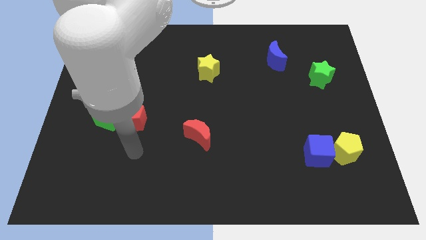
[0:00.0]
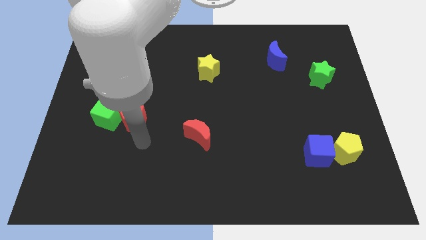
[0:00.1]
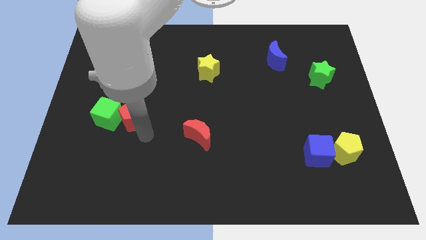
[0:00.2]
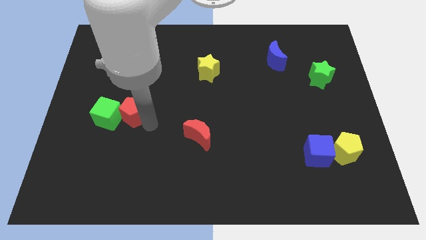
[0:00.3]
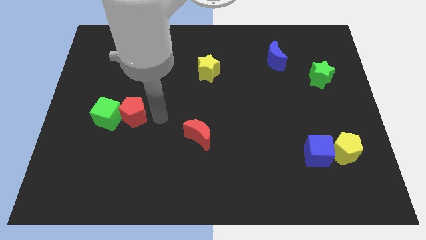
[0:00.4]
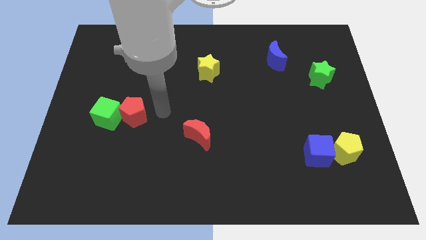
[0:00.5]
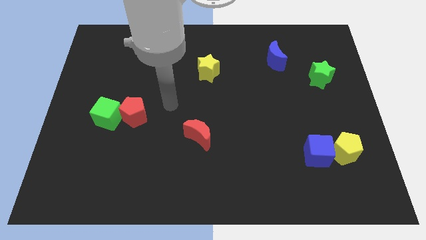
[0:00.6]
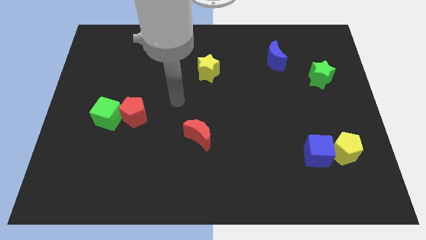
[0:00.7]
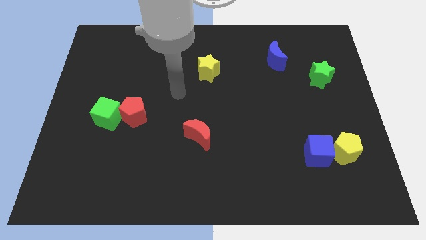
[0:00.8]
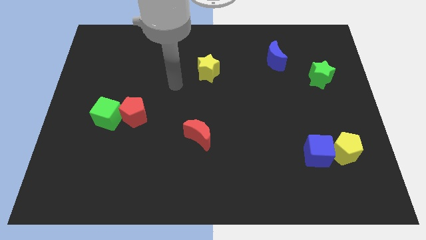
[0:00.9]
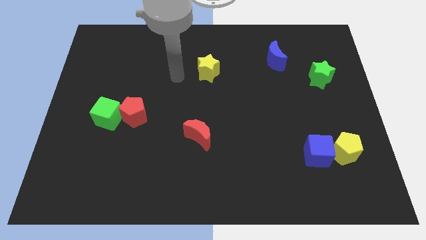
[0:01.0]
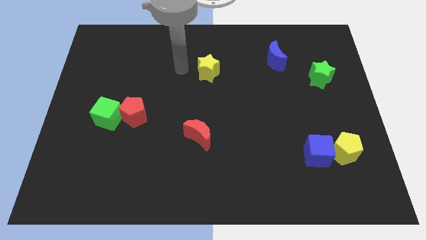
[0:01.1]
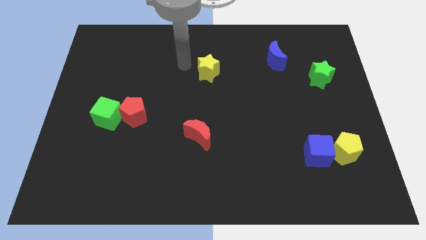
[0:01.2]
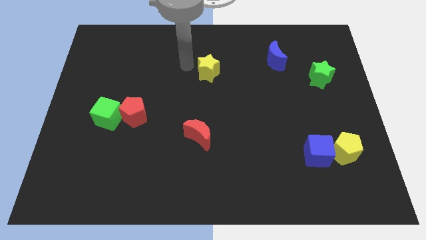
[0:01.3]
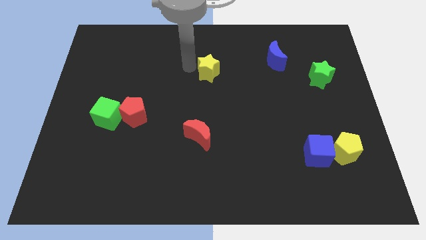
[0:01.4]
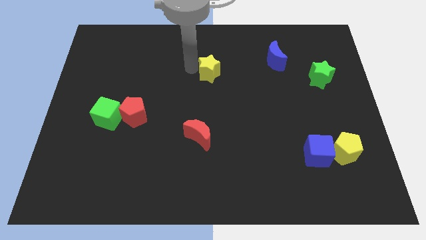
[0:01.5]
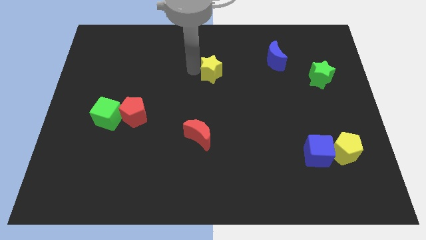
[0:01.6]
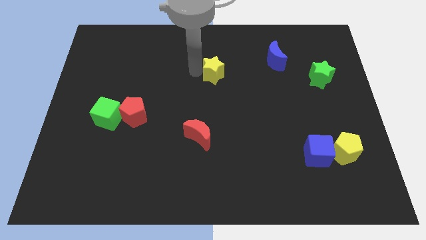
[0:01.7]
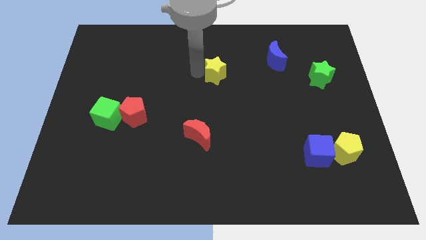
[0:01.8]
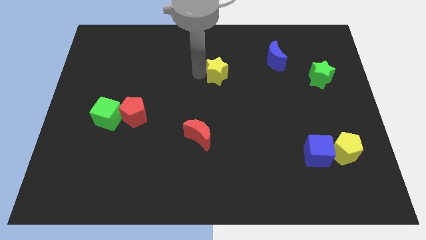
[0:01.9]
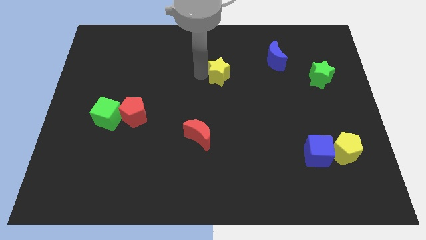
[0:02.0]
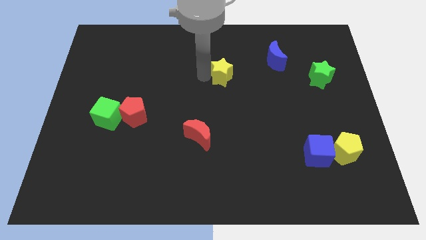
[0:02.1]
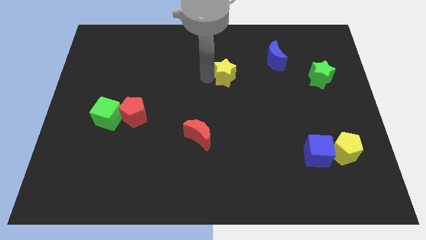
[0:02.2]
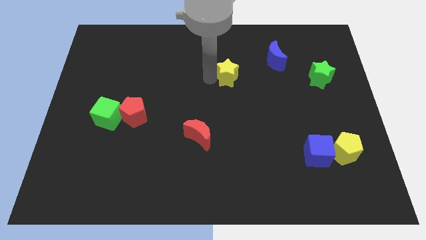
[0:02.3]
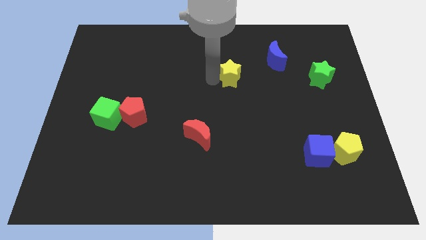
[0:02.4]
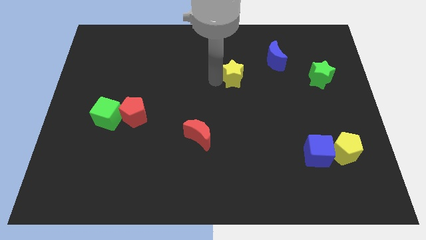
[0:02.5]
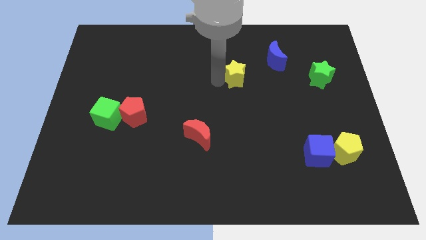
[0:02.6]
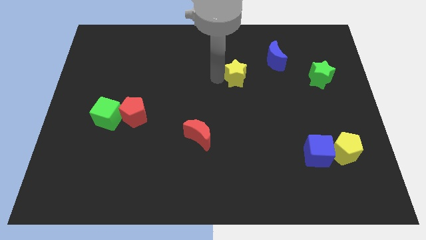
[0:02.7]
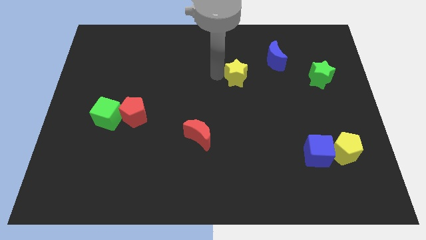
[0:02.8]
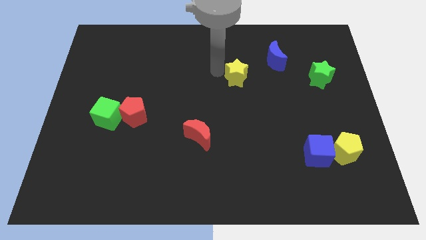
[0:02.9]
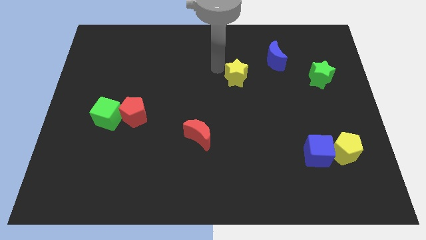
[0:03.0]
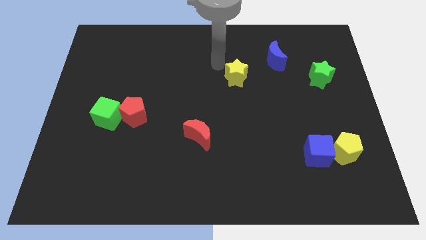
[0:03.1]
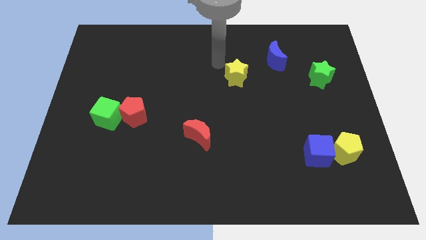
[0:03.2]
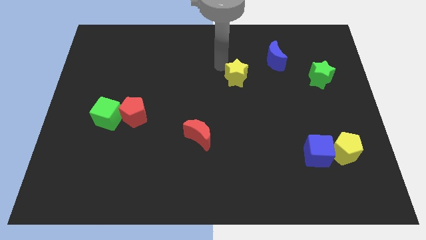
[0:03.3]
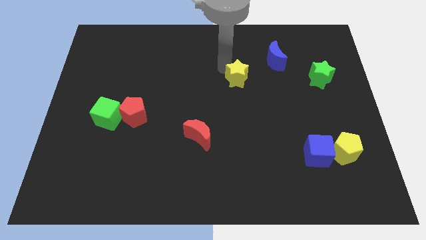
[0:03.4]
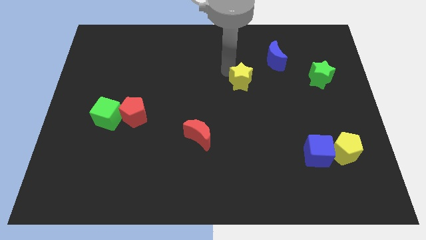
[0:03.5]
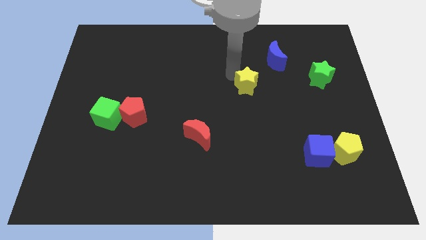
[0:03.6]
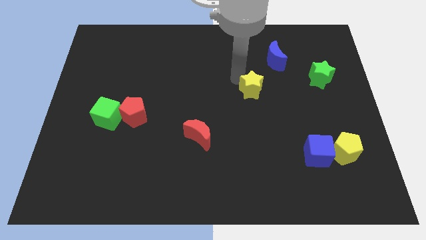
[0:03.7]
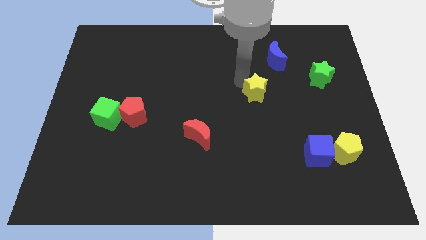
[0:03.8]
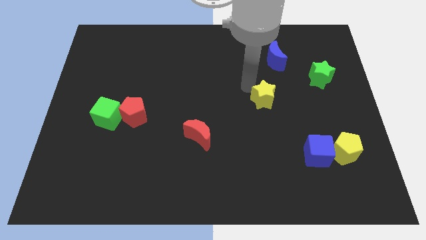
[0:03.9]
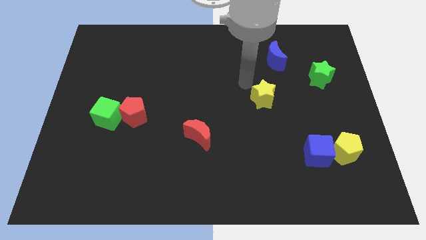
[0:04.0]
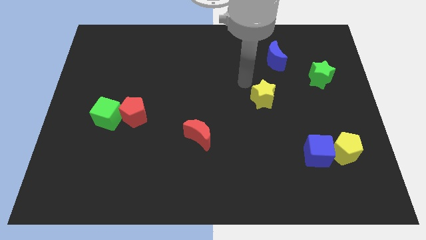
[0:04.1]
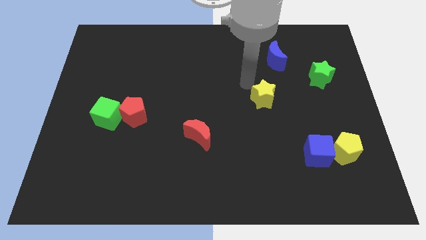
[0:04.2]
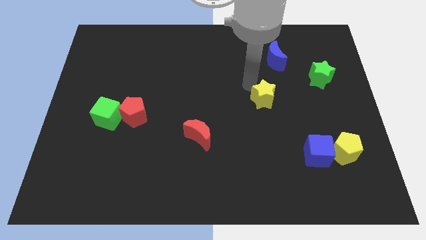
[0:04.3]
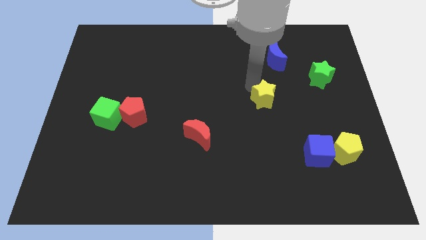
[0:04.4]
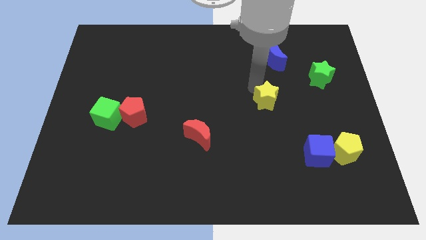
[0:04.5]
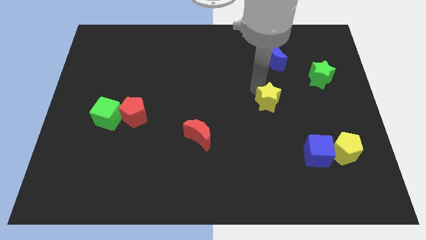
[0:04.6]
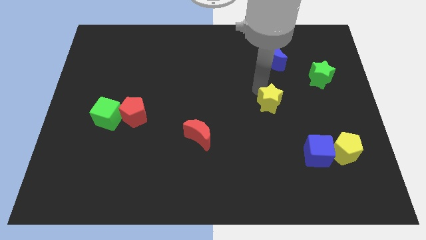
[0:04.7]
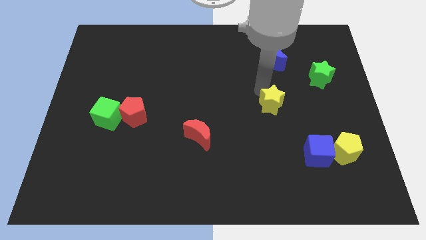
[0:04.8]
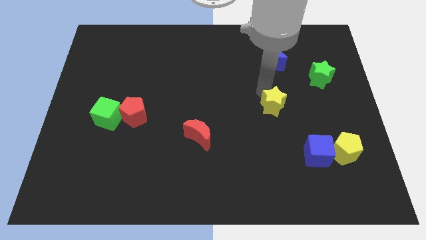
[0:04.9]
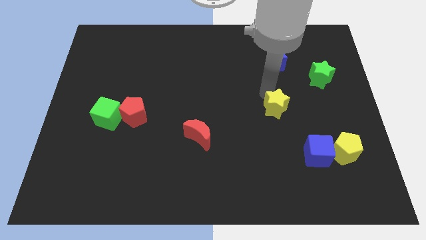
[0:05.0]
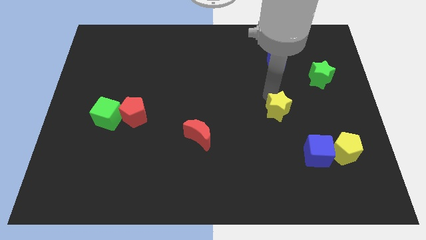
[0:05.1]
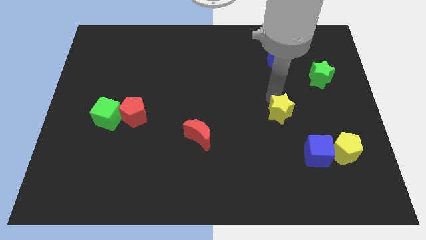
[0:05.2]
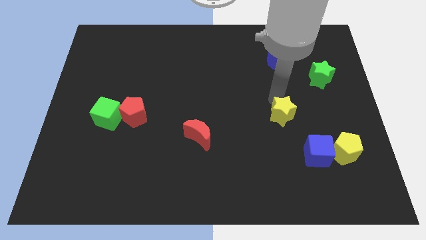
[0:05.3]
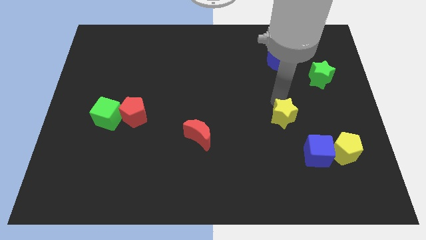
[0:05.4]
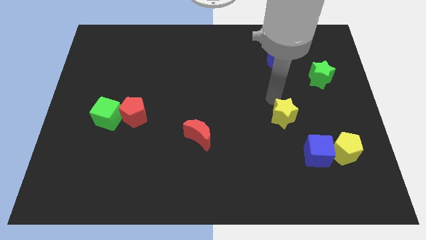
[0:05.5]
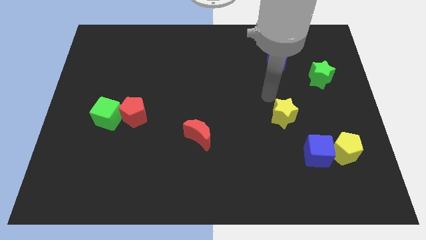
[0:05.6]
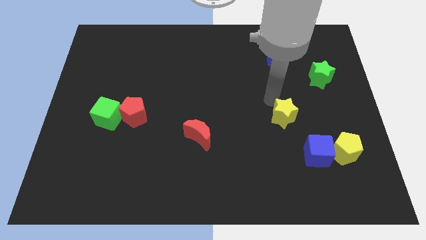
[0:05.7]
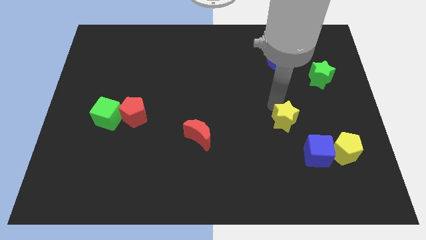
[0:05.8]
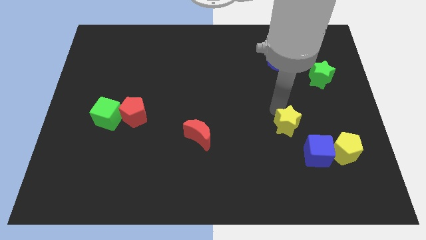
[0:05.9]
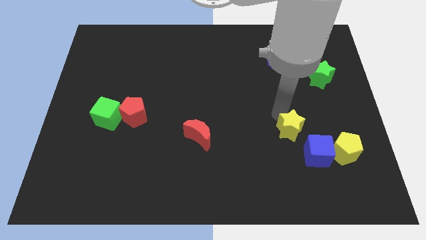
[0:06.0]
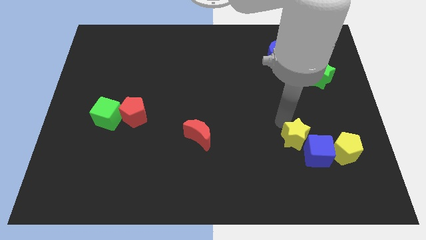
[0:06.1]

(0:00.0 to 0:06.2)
put the yellow star next to the blue cube

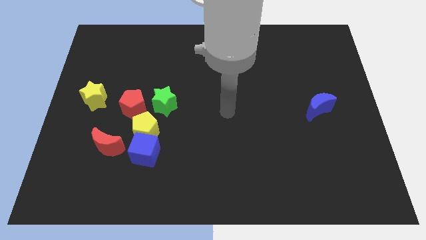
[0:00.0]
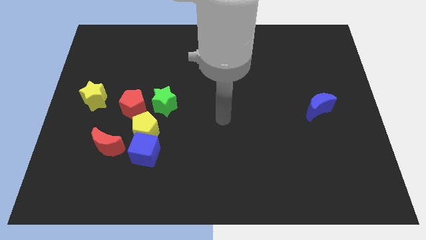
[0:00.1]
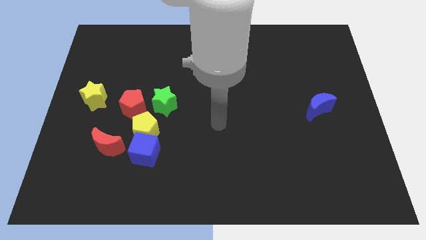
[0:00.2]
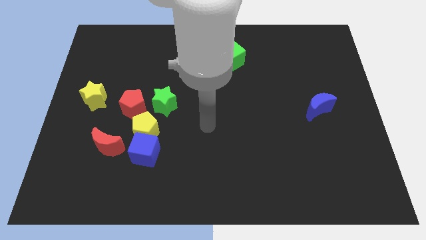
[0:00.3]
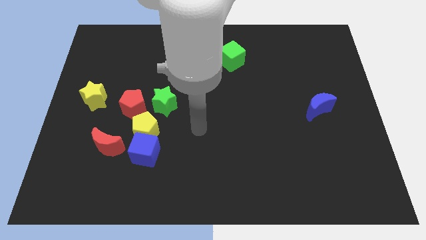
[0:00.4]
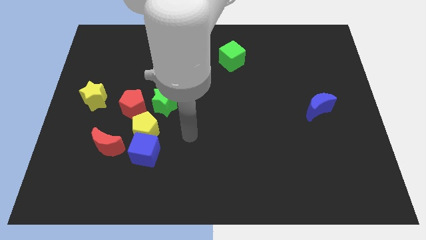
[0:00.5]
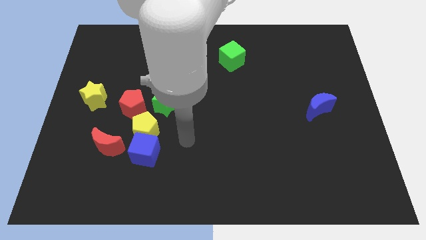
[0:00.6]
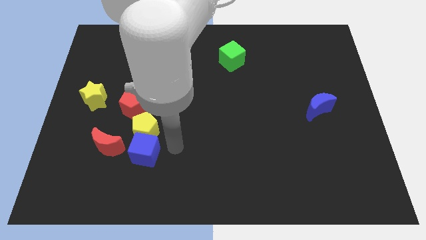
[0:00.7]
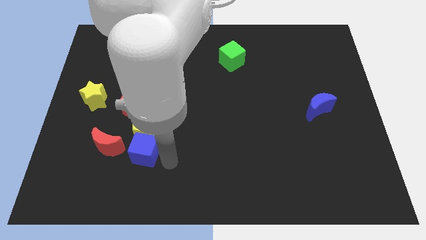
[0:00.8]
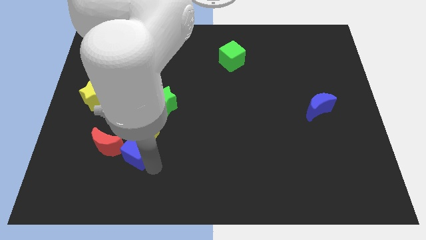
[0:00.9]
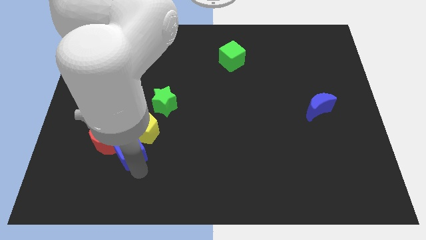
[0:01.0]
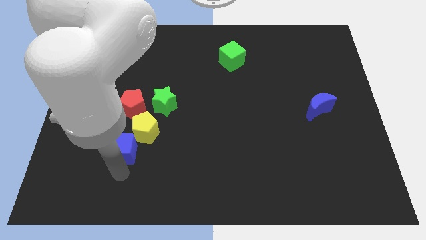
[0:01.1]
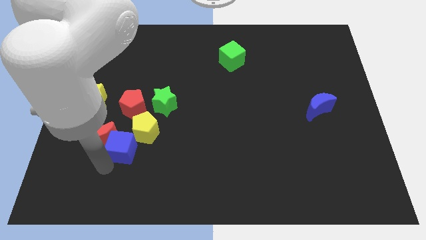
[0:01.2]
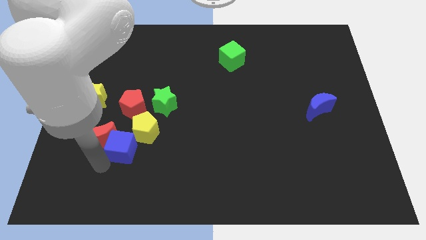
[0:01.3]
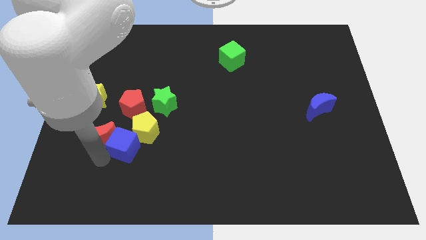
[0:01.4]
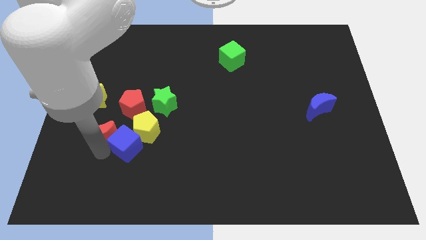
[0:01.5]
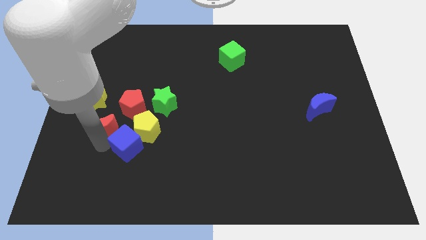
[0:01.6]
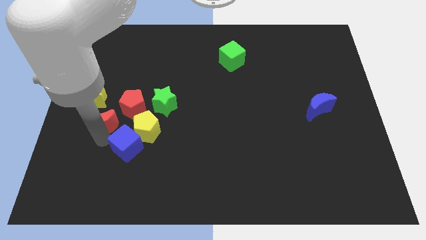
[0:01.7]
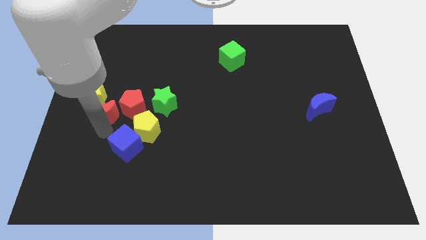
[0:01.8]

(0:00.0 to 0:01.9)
put the red moon to the yellow star
